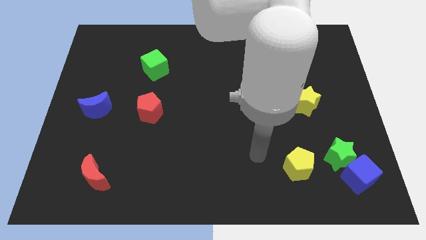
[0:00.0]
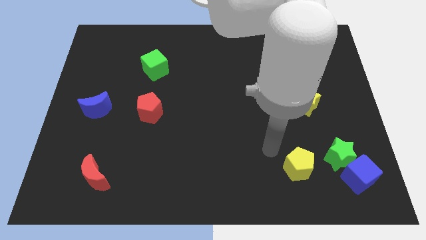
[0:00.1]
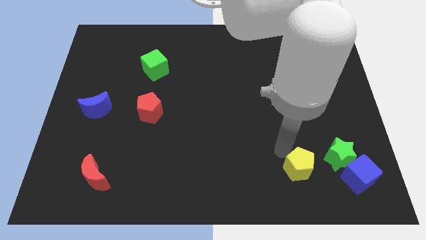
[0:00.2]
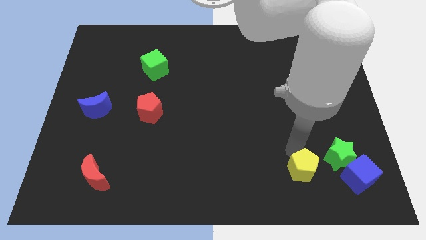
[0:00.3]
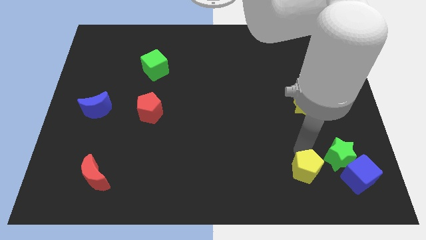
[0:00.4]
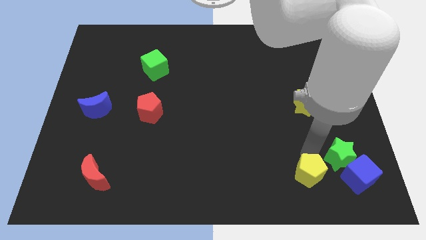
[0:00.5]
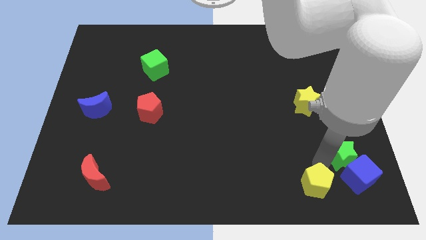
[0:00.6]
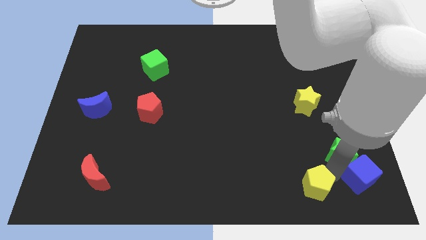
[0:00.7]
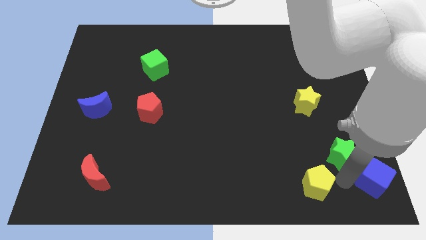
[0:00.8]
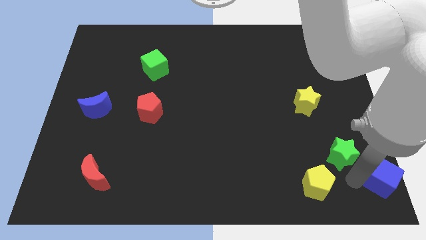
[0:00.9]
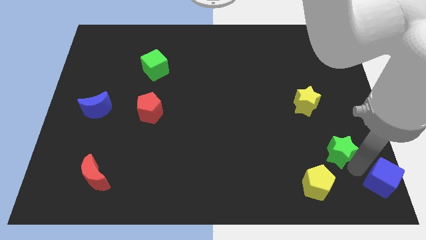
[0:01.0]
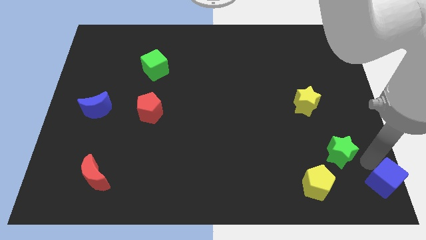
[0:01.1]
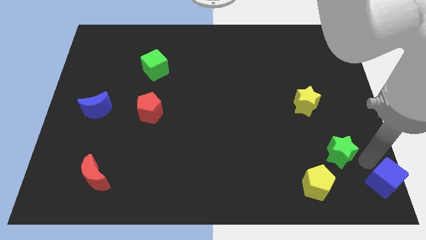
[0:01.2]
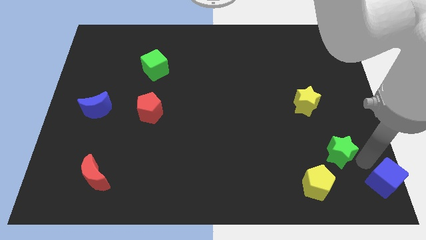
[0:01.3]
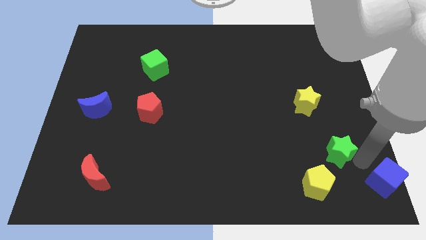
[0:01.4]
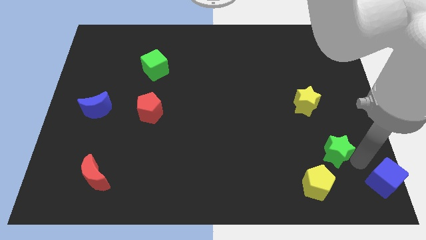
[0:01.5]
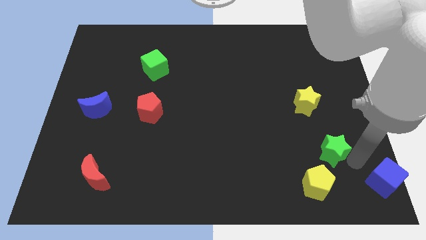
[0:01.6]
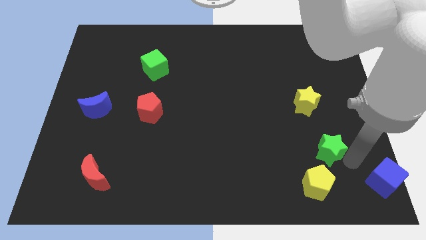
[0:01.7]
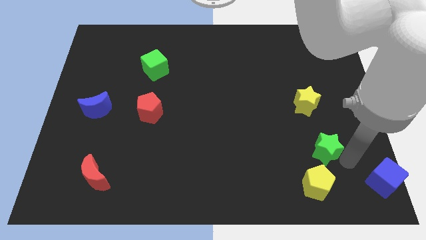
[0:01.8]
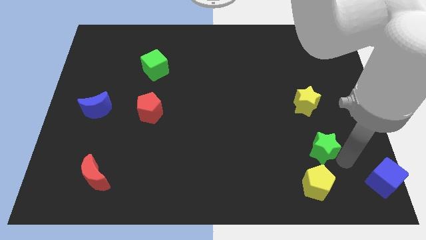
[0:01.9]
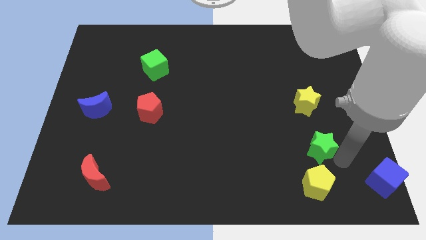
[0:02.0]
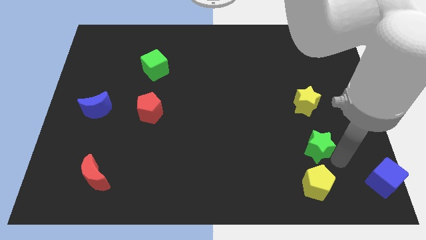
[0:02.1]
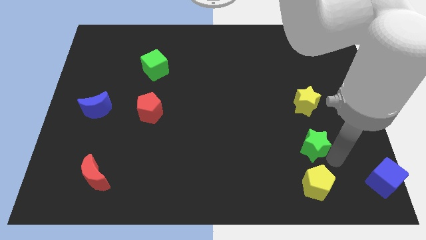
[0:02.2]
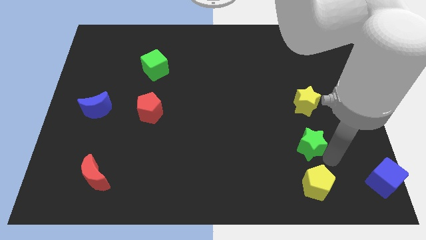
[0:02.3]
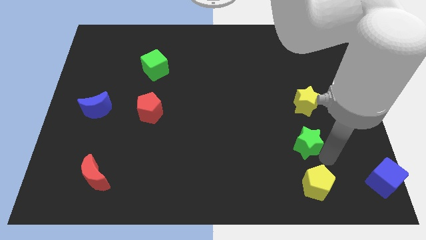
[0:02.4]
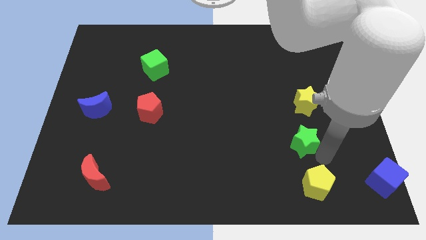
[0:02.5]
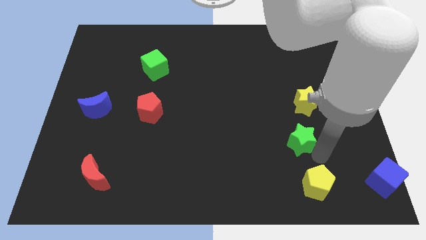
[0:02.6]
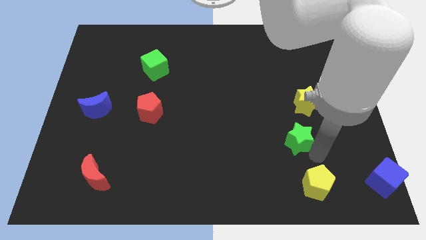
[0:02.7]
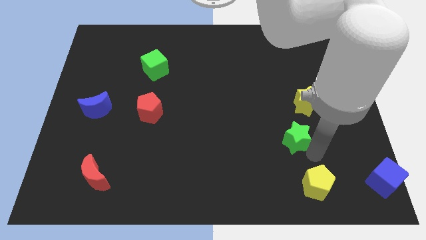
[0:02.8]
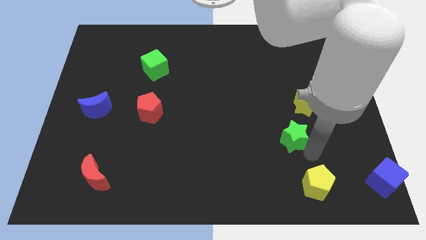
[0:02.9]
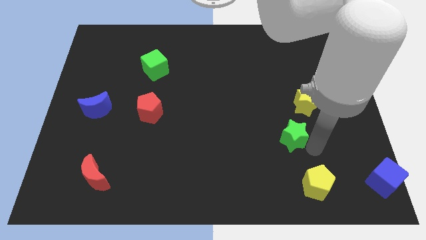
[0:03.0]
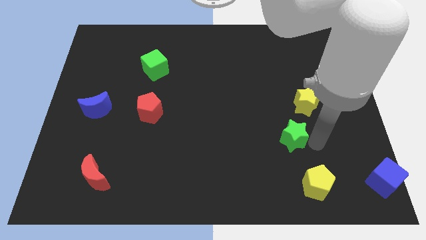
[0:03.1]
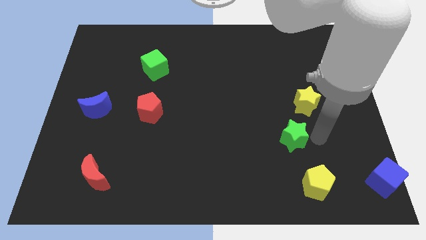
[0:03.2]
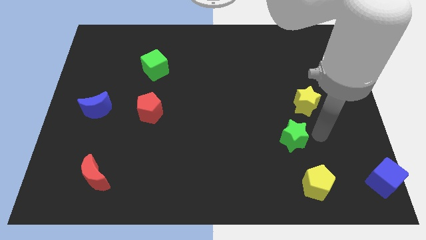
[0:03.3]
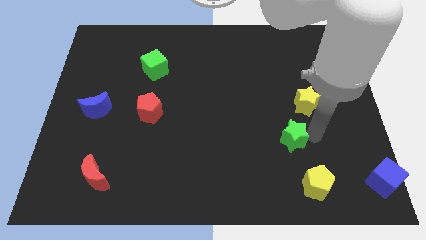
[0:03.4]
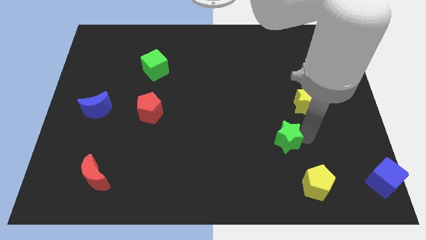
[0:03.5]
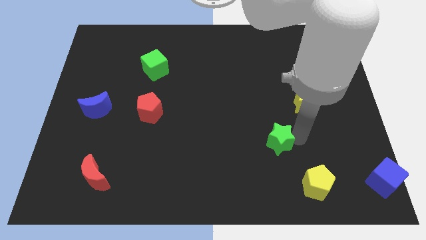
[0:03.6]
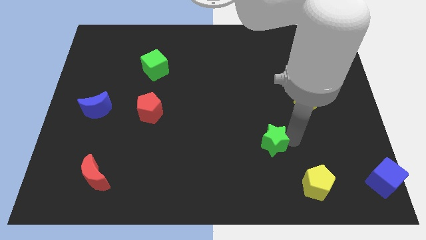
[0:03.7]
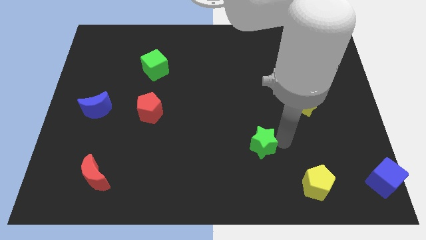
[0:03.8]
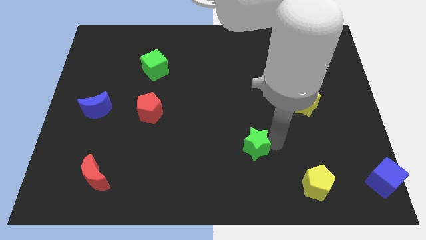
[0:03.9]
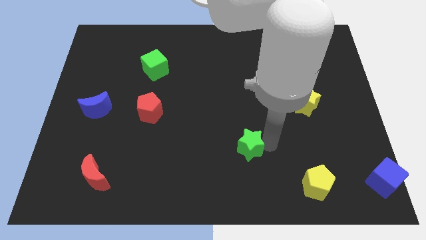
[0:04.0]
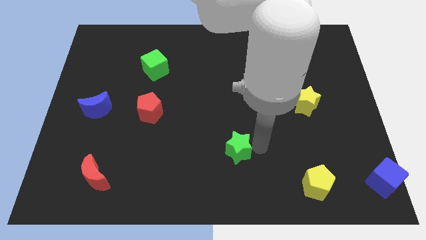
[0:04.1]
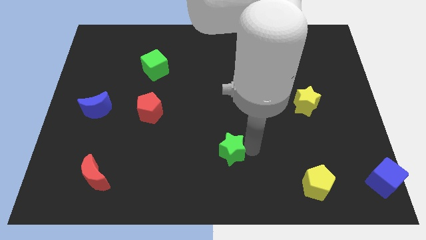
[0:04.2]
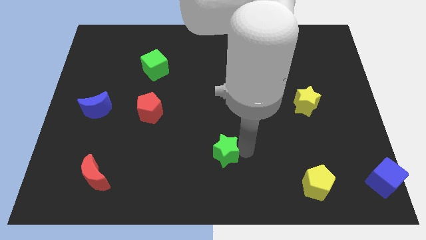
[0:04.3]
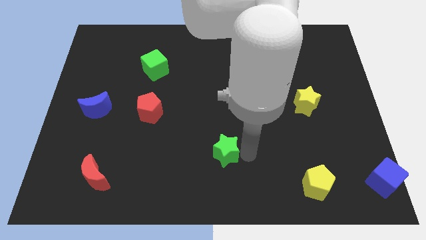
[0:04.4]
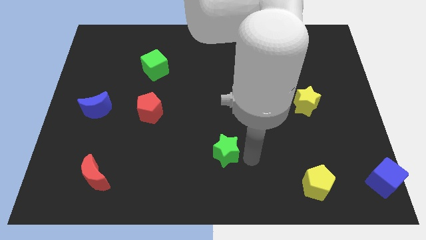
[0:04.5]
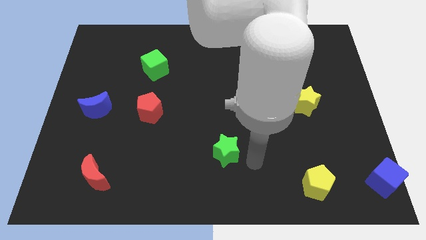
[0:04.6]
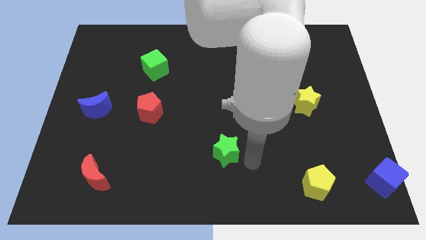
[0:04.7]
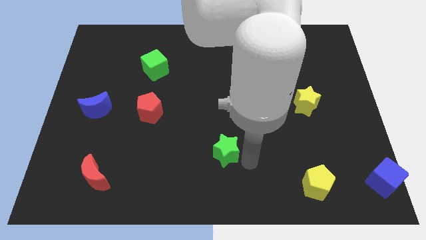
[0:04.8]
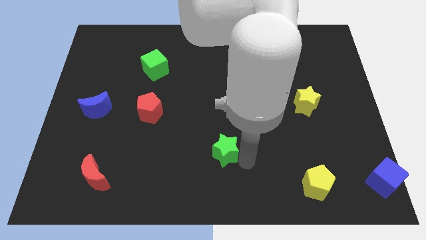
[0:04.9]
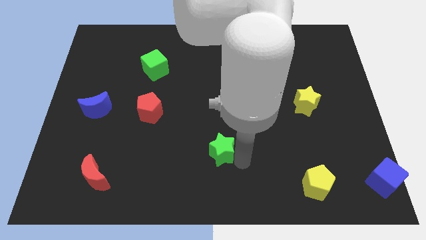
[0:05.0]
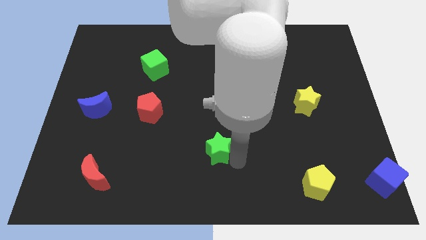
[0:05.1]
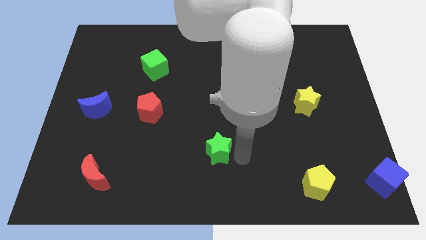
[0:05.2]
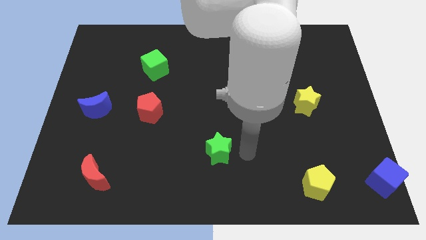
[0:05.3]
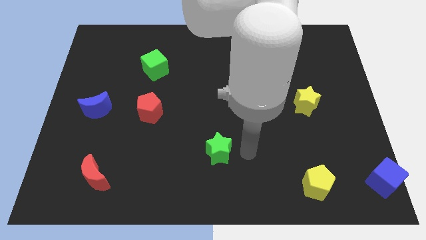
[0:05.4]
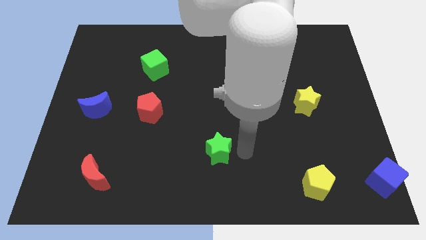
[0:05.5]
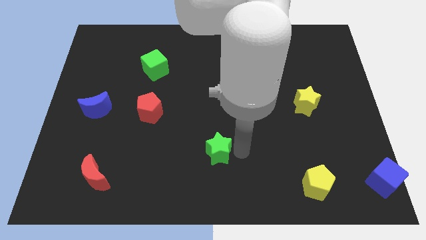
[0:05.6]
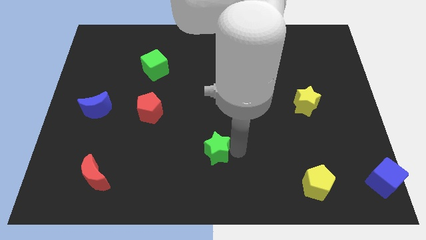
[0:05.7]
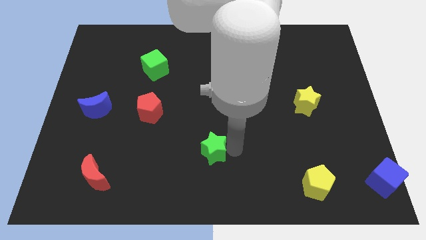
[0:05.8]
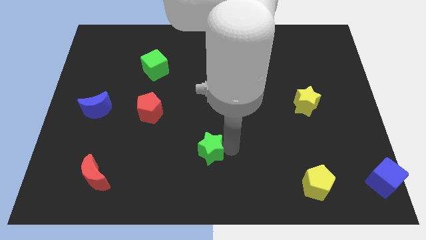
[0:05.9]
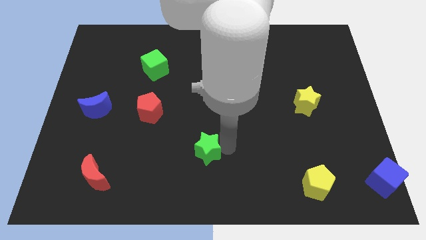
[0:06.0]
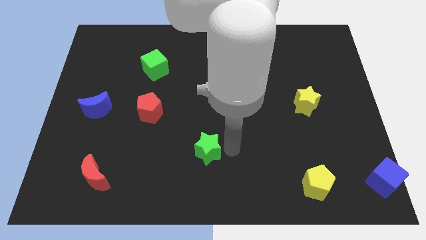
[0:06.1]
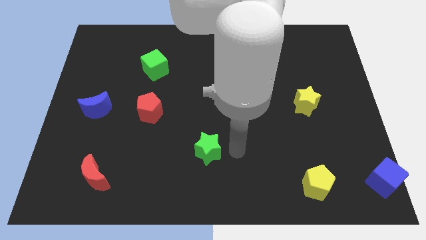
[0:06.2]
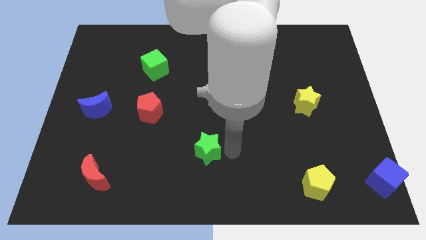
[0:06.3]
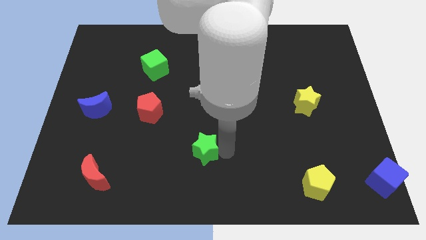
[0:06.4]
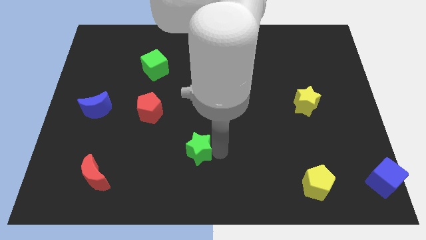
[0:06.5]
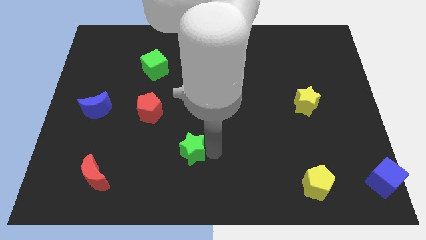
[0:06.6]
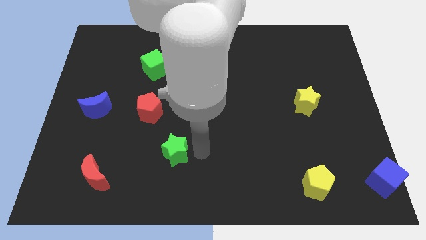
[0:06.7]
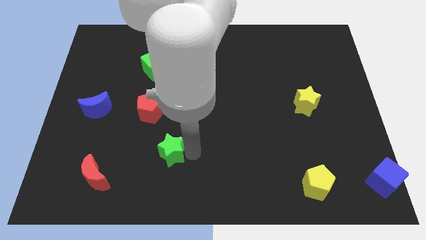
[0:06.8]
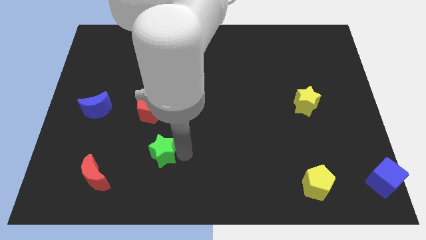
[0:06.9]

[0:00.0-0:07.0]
move the green star below the red pentagon

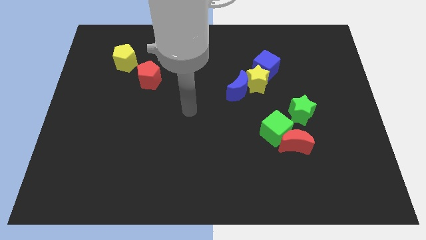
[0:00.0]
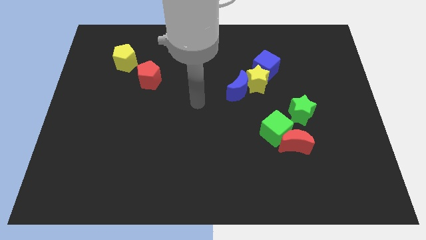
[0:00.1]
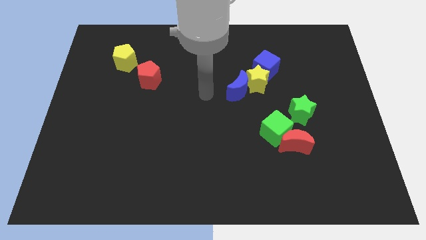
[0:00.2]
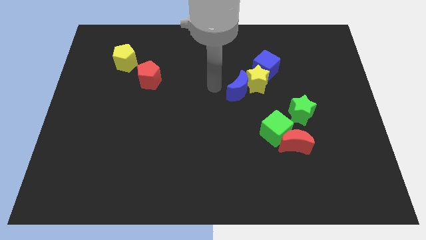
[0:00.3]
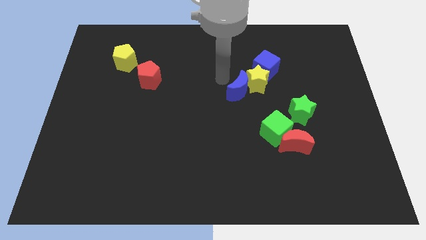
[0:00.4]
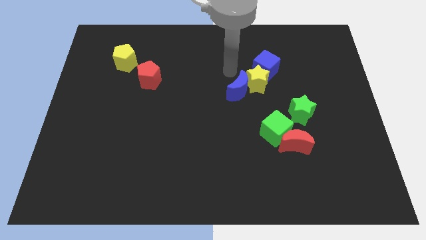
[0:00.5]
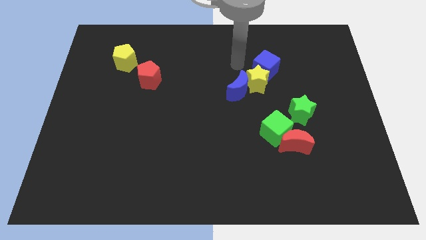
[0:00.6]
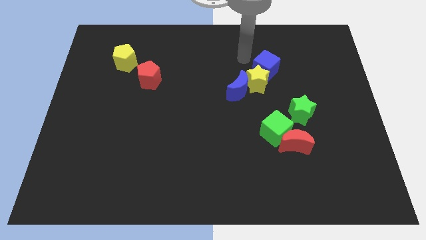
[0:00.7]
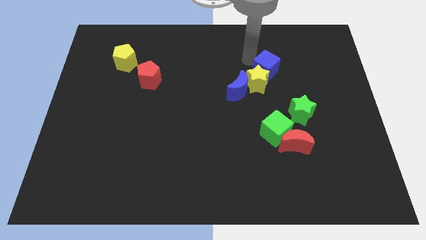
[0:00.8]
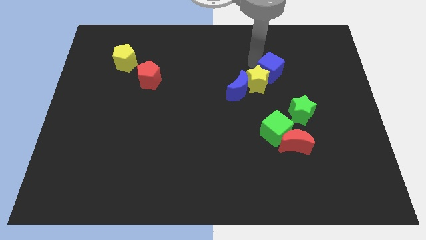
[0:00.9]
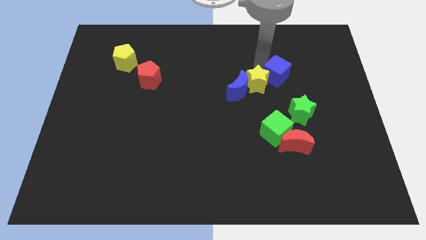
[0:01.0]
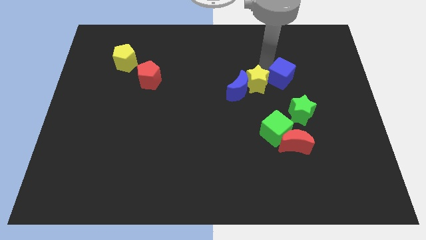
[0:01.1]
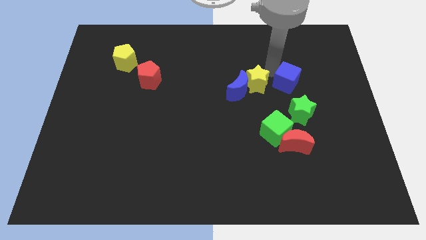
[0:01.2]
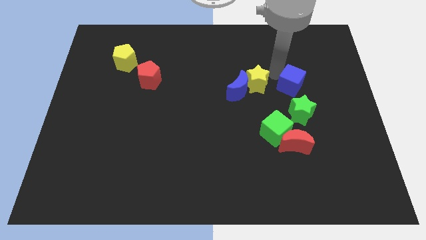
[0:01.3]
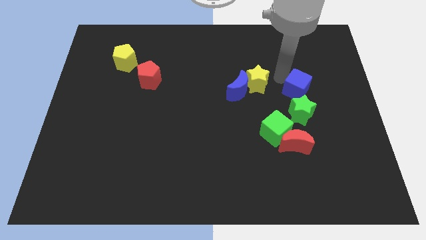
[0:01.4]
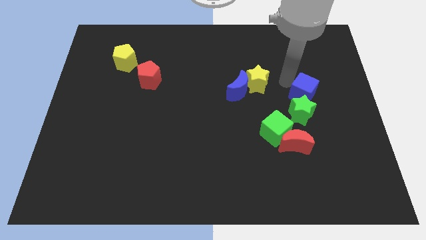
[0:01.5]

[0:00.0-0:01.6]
put the blue cube to the top right of the green star
